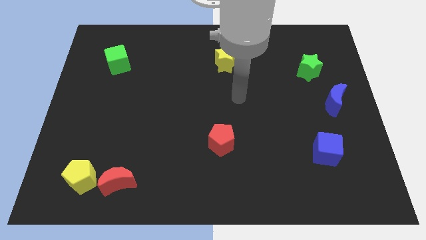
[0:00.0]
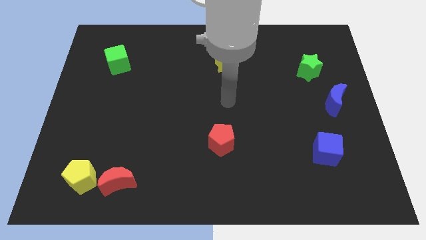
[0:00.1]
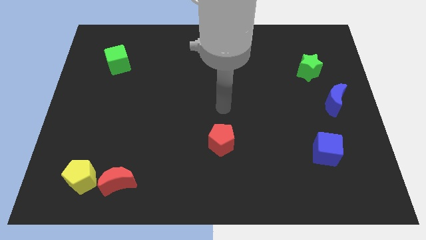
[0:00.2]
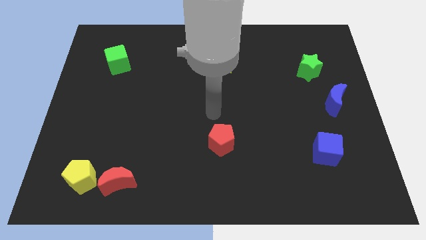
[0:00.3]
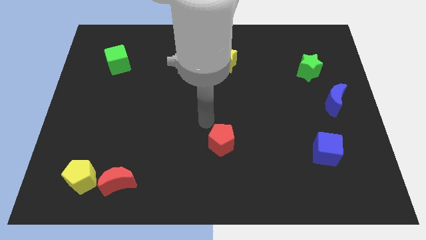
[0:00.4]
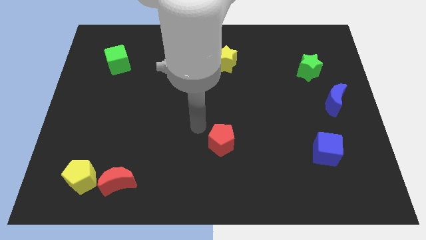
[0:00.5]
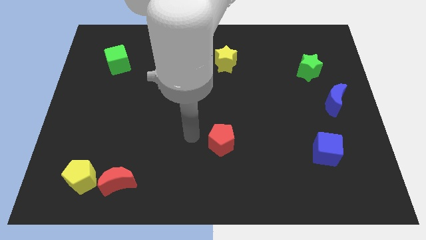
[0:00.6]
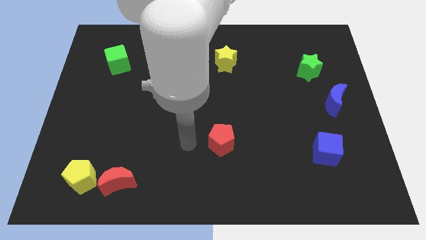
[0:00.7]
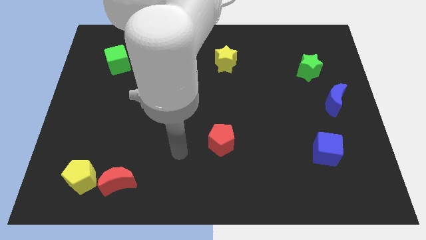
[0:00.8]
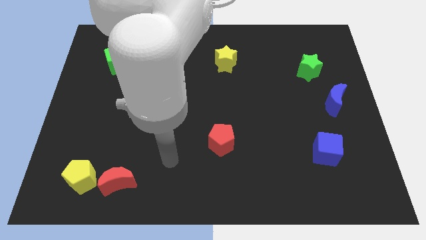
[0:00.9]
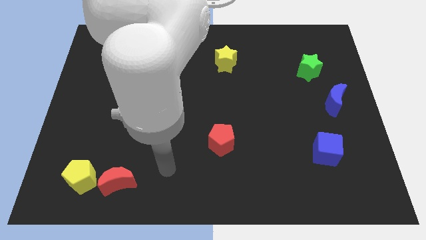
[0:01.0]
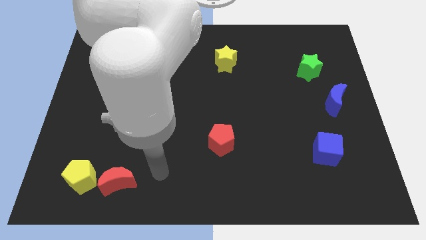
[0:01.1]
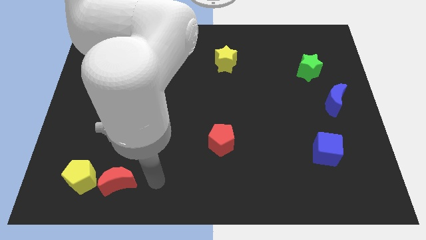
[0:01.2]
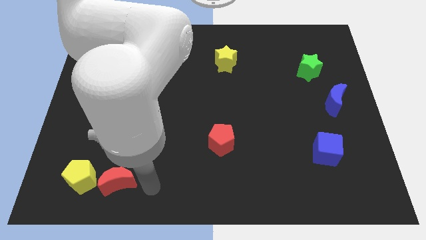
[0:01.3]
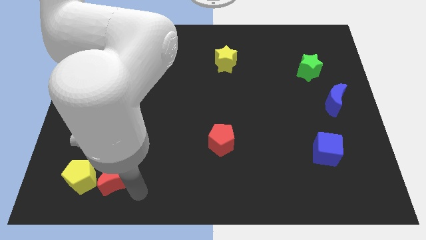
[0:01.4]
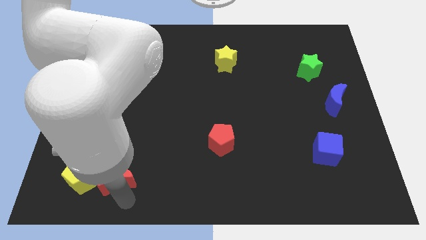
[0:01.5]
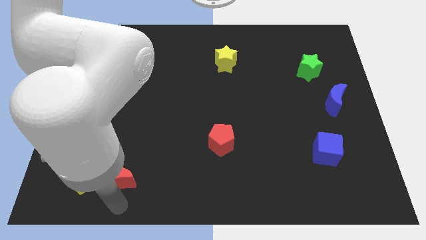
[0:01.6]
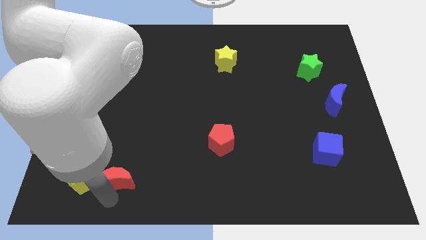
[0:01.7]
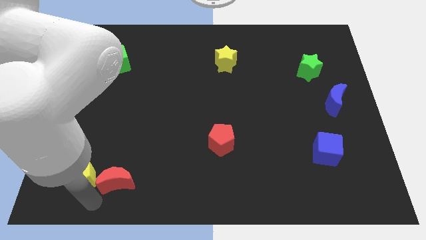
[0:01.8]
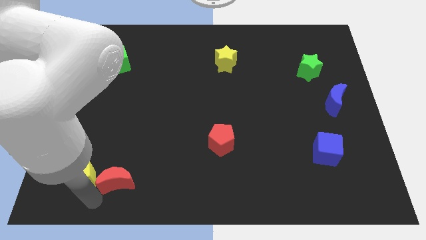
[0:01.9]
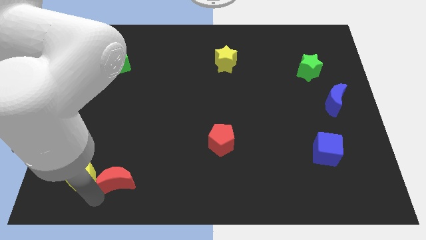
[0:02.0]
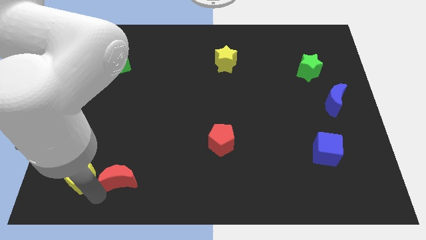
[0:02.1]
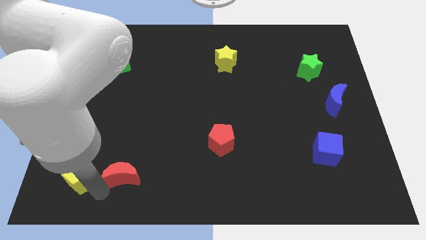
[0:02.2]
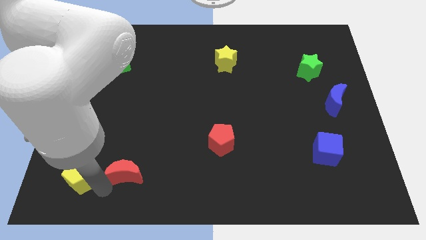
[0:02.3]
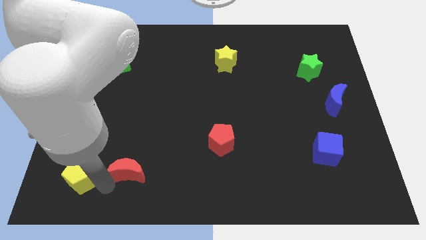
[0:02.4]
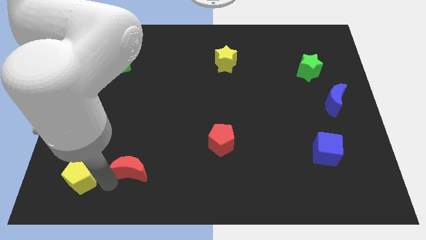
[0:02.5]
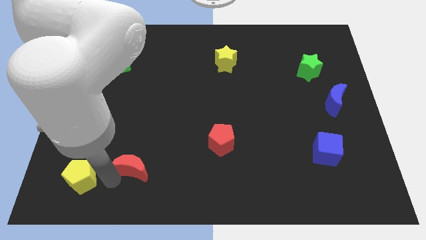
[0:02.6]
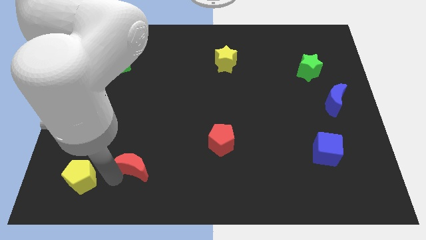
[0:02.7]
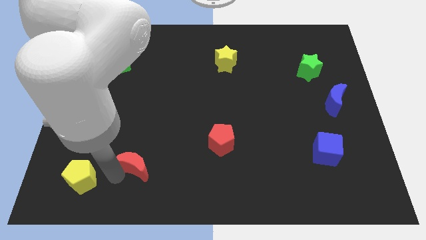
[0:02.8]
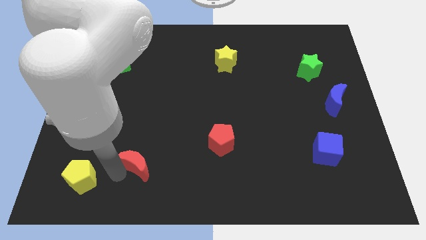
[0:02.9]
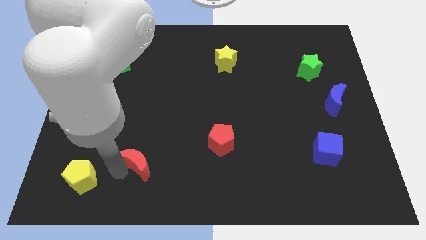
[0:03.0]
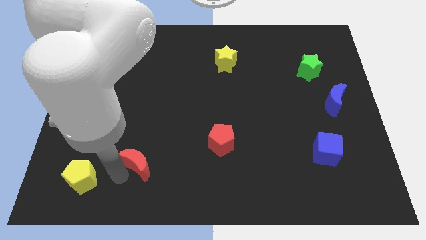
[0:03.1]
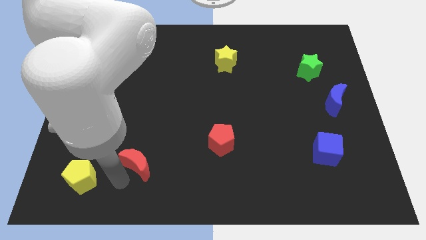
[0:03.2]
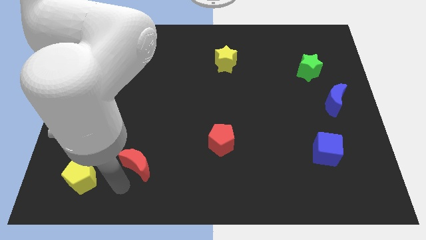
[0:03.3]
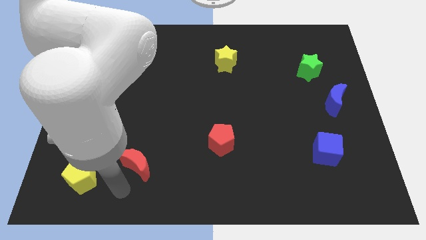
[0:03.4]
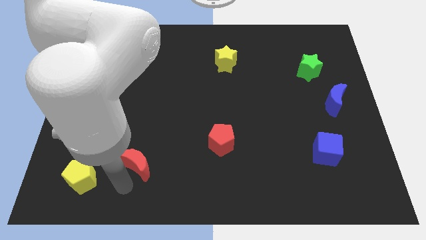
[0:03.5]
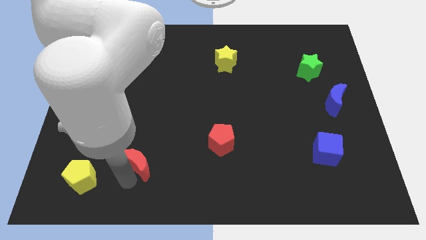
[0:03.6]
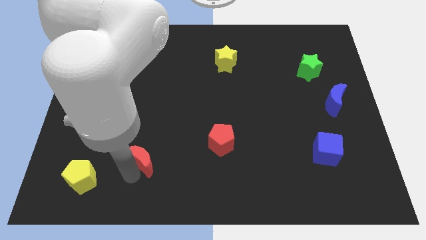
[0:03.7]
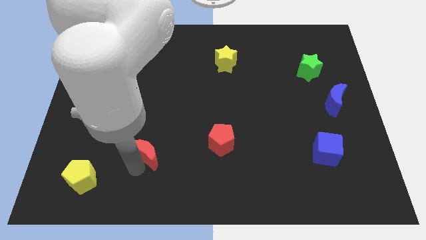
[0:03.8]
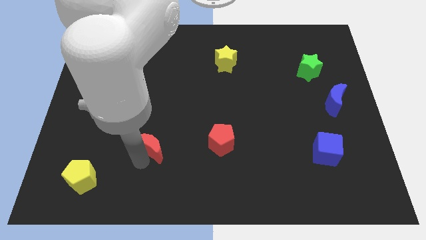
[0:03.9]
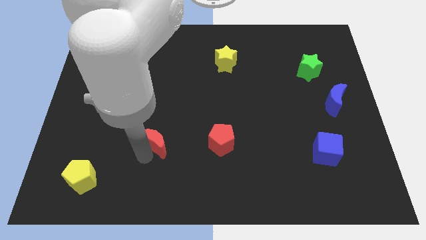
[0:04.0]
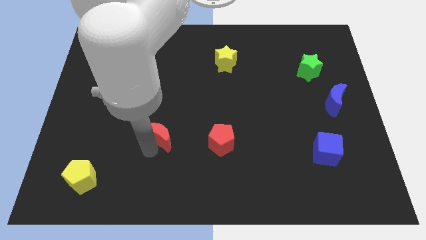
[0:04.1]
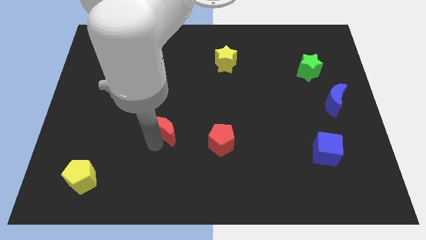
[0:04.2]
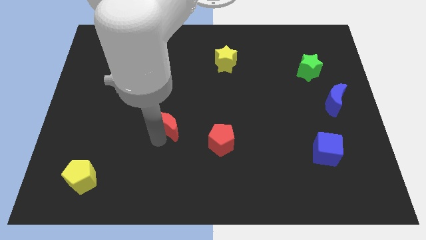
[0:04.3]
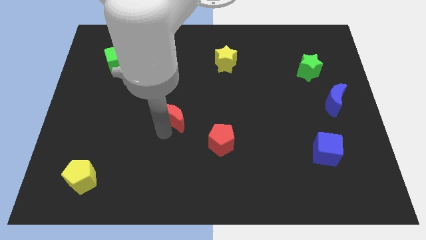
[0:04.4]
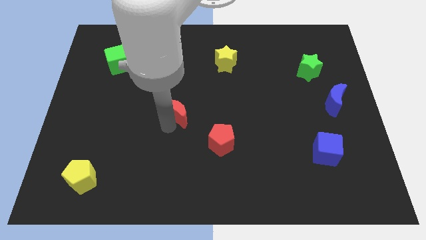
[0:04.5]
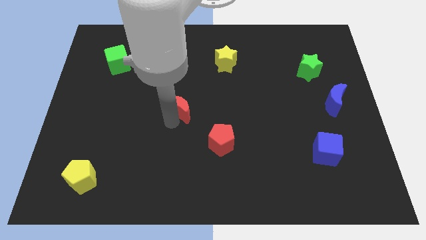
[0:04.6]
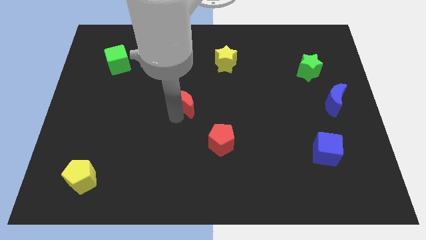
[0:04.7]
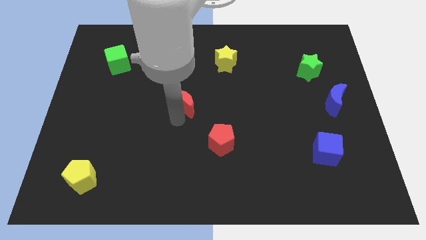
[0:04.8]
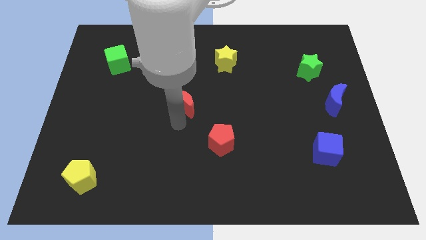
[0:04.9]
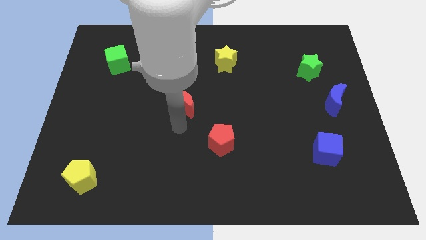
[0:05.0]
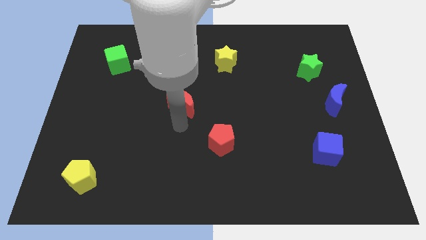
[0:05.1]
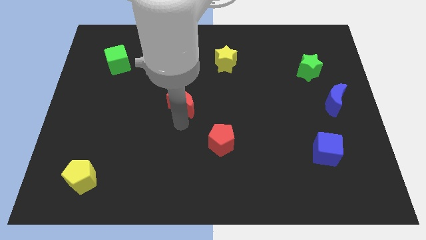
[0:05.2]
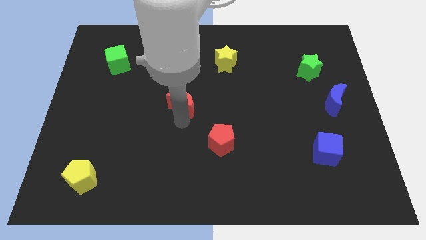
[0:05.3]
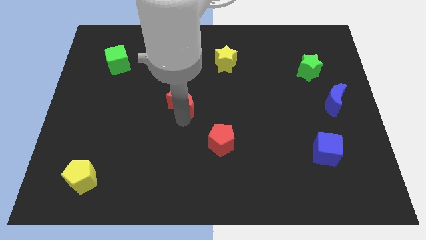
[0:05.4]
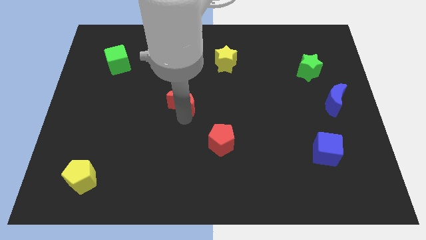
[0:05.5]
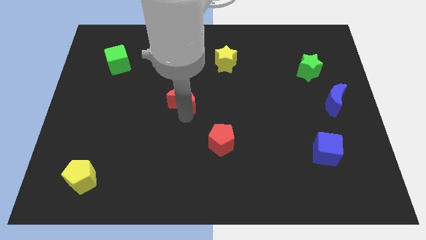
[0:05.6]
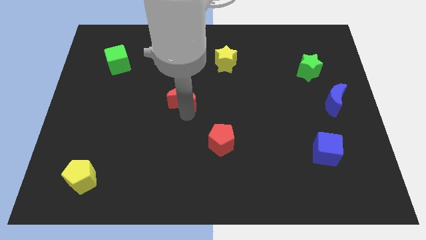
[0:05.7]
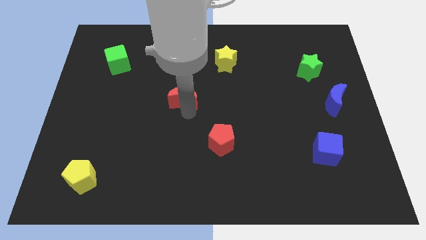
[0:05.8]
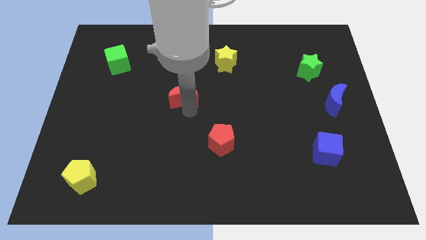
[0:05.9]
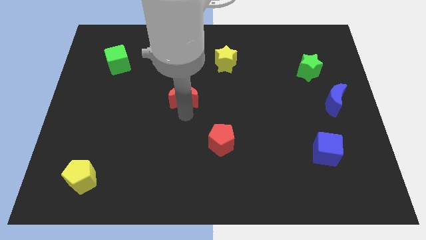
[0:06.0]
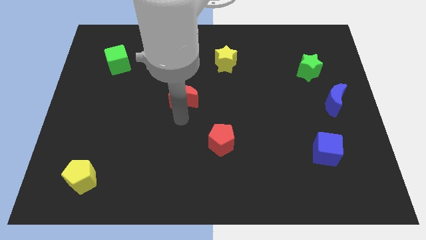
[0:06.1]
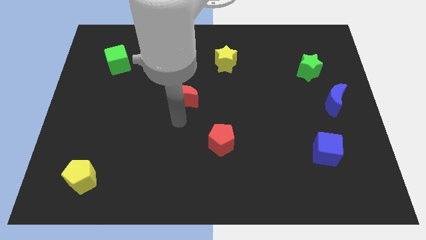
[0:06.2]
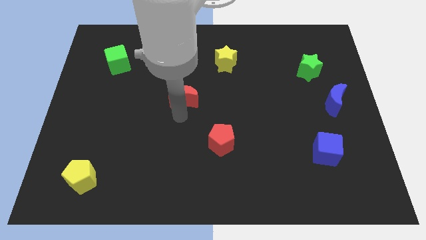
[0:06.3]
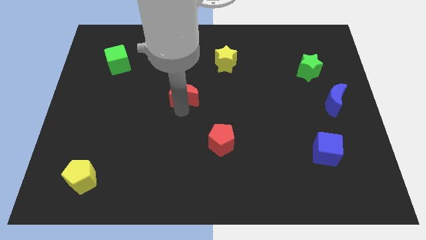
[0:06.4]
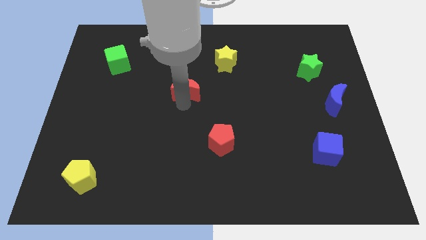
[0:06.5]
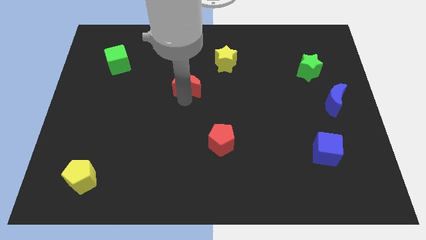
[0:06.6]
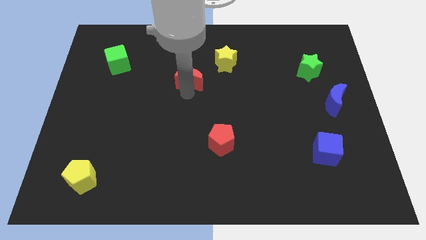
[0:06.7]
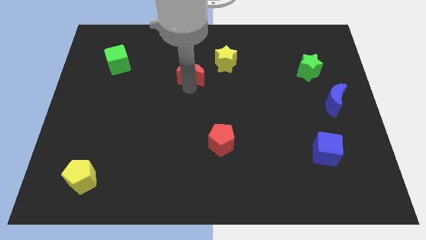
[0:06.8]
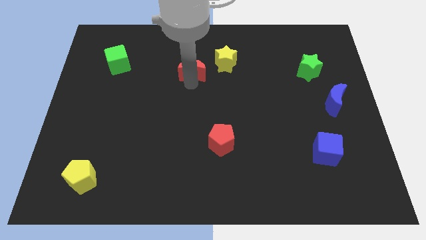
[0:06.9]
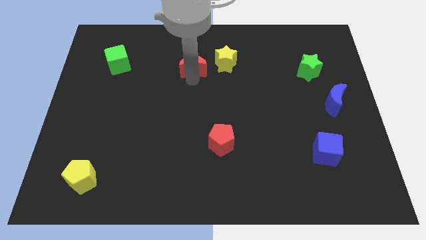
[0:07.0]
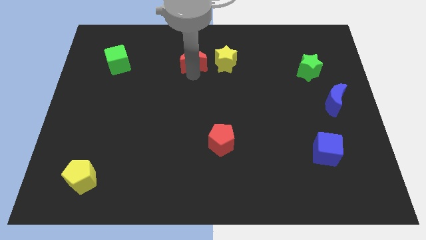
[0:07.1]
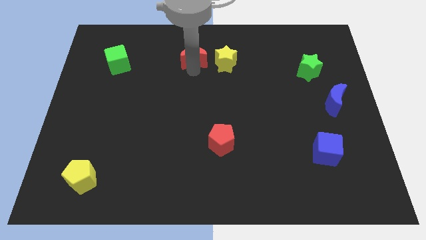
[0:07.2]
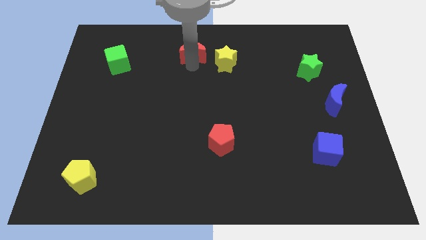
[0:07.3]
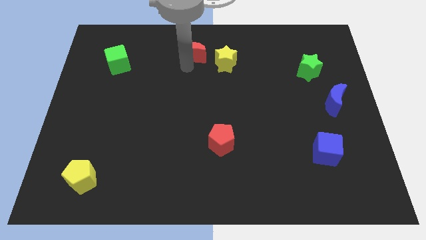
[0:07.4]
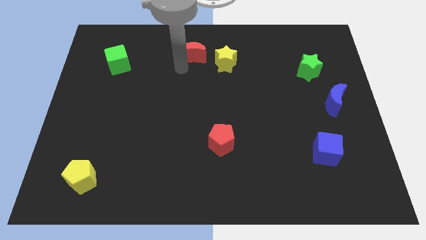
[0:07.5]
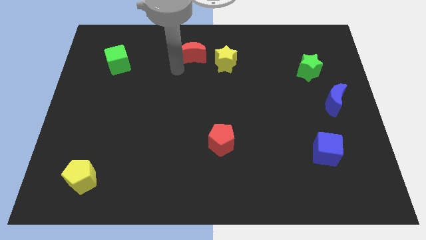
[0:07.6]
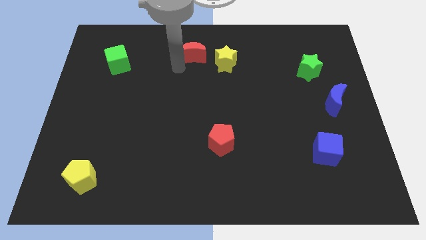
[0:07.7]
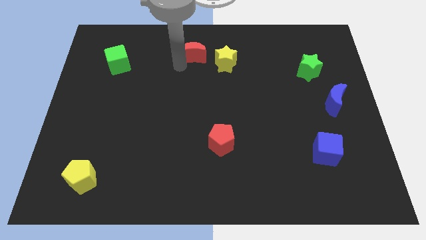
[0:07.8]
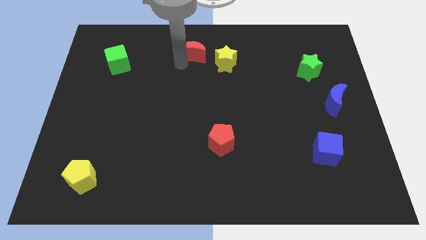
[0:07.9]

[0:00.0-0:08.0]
slide the red moon to the towards your base
